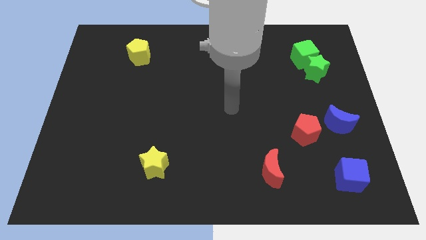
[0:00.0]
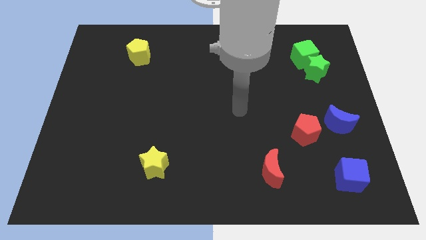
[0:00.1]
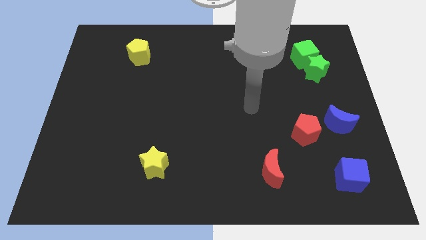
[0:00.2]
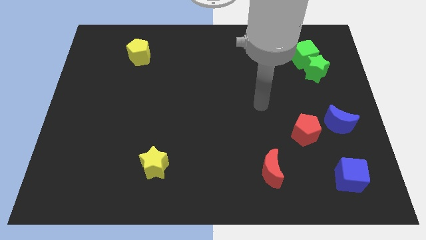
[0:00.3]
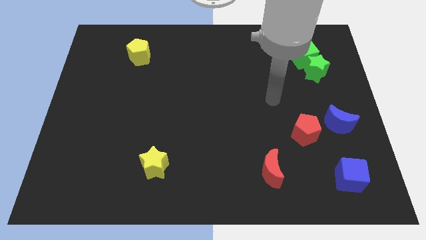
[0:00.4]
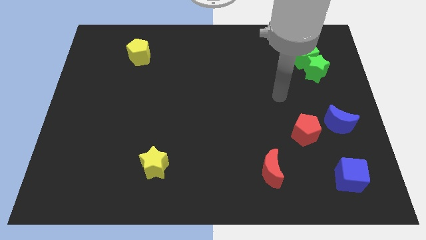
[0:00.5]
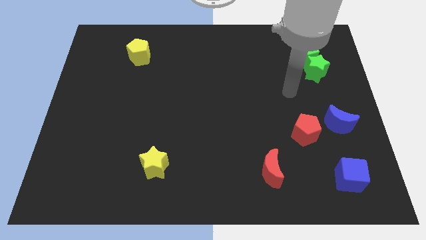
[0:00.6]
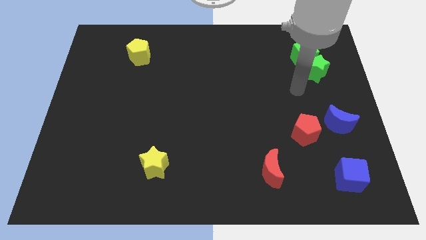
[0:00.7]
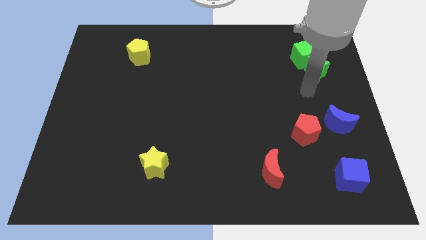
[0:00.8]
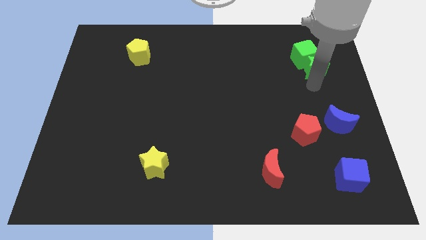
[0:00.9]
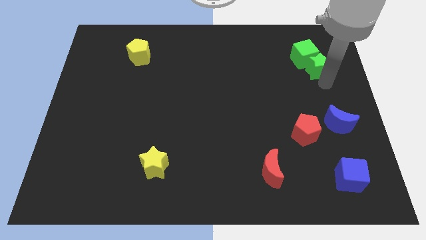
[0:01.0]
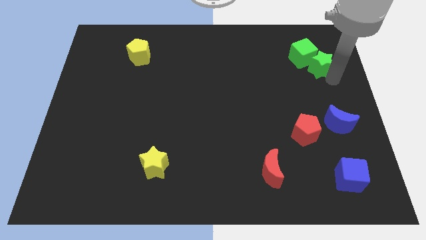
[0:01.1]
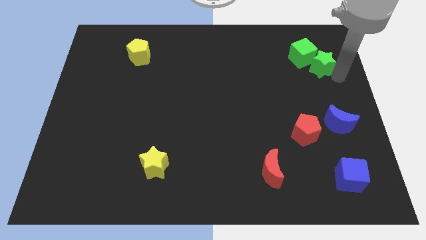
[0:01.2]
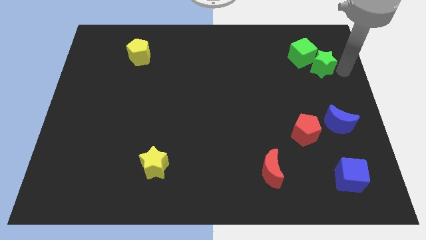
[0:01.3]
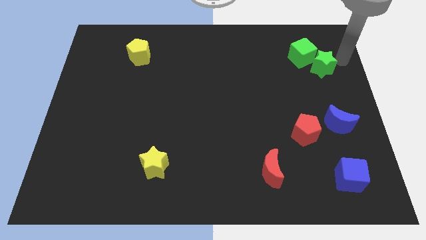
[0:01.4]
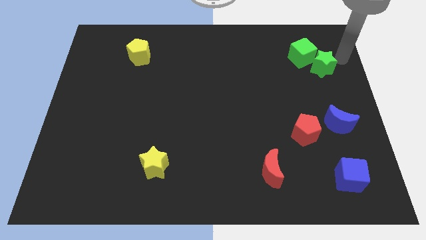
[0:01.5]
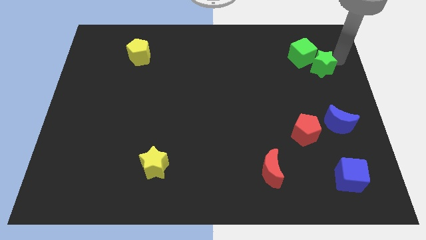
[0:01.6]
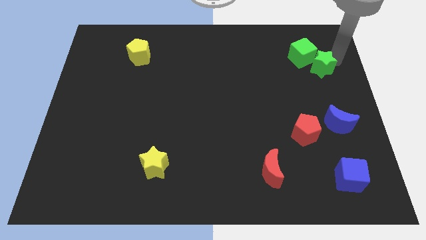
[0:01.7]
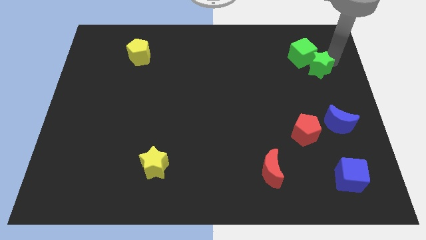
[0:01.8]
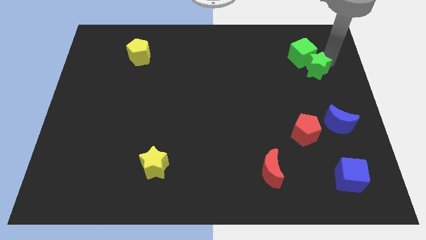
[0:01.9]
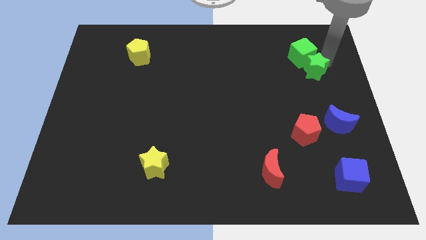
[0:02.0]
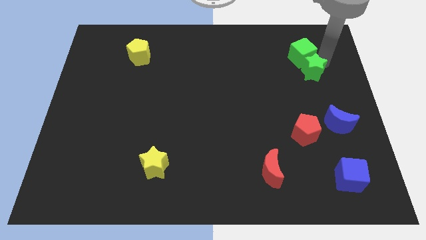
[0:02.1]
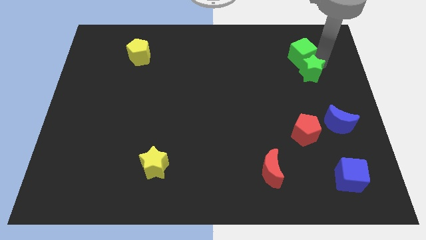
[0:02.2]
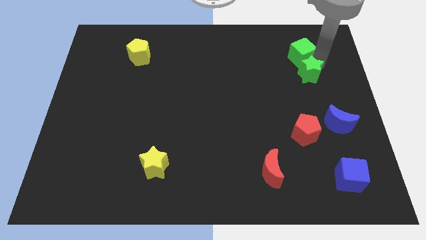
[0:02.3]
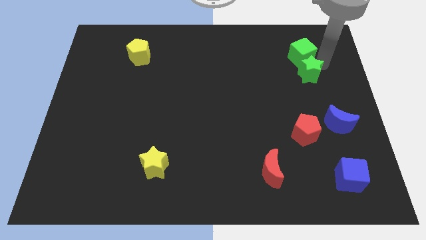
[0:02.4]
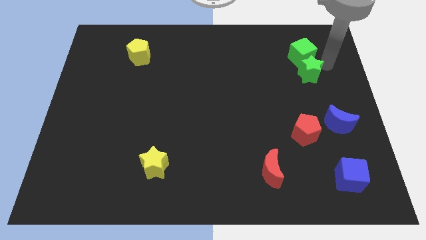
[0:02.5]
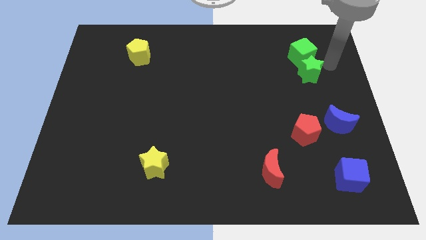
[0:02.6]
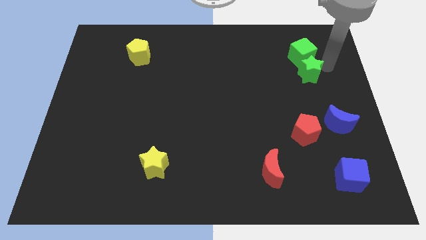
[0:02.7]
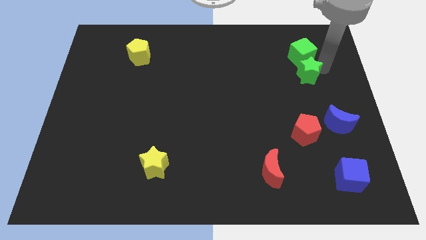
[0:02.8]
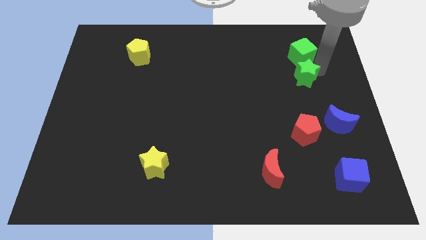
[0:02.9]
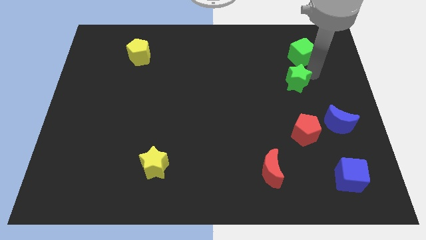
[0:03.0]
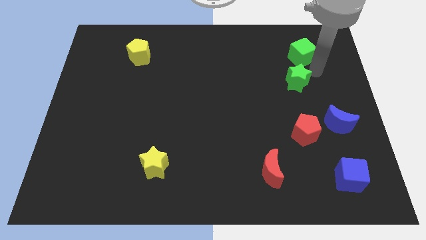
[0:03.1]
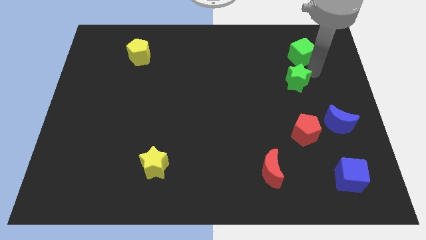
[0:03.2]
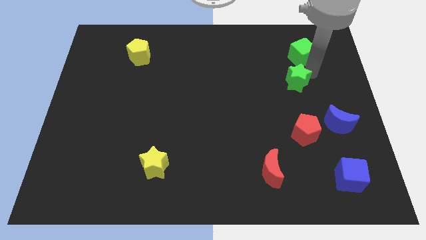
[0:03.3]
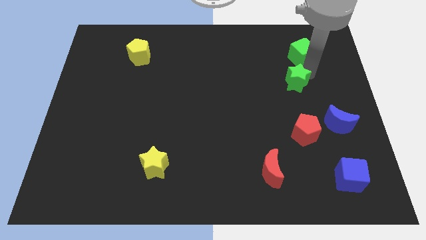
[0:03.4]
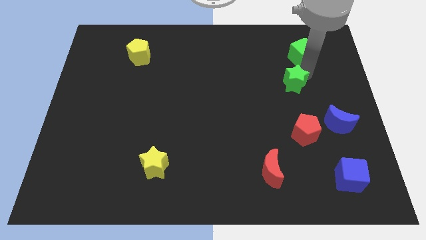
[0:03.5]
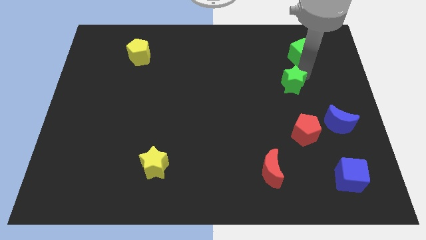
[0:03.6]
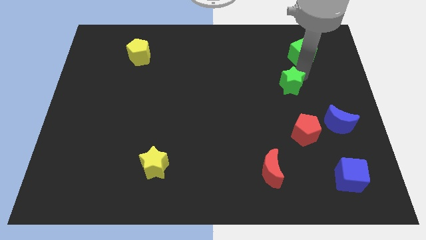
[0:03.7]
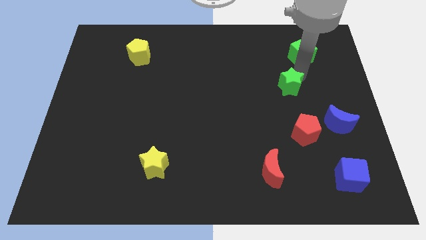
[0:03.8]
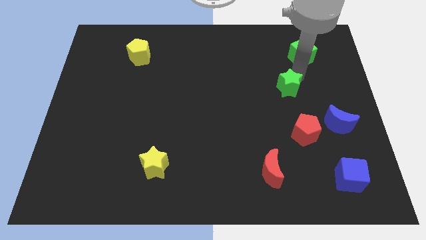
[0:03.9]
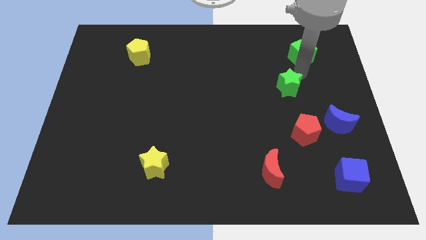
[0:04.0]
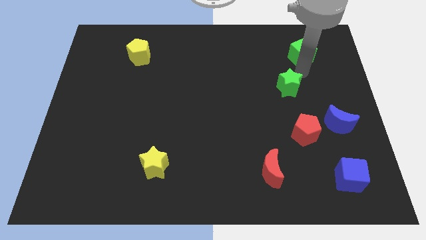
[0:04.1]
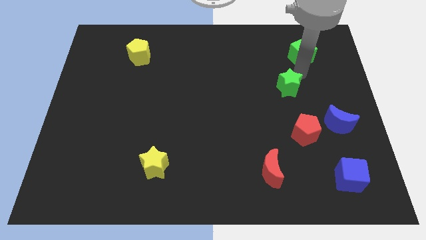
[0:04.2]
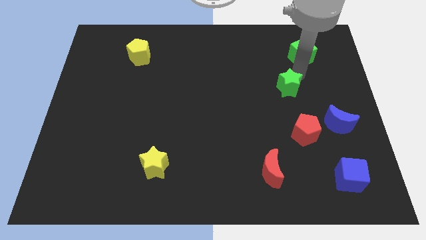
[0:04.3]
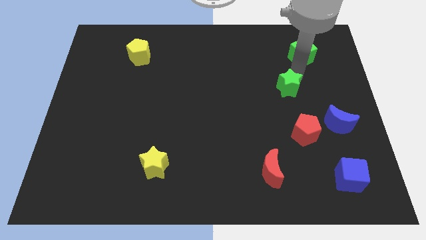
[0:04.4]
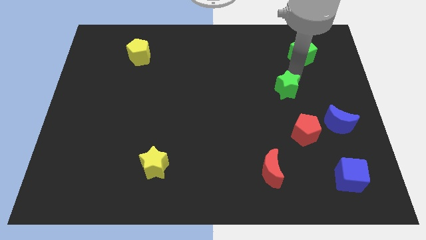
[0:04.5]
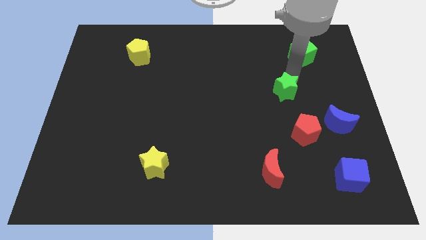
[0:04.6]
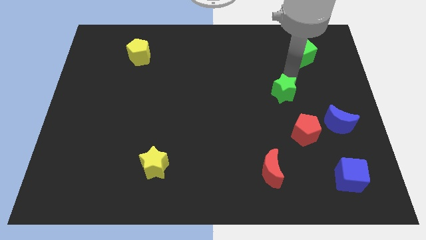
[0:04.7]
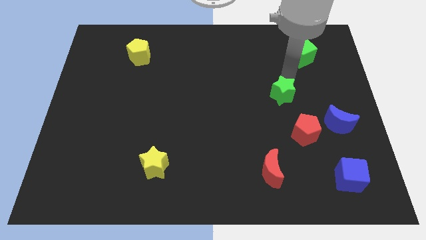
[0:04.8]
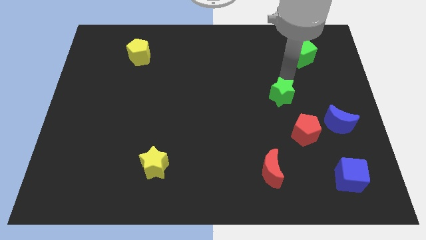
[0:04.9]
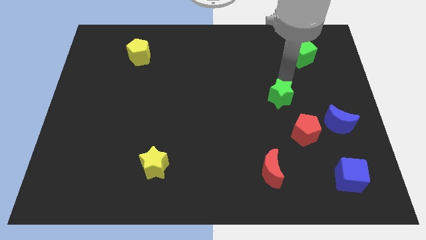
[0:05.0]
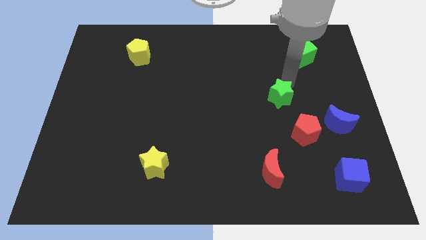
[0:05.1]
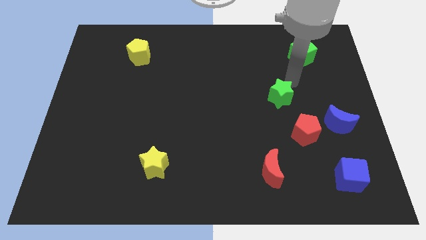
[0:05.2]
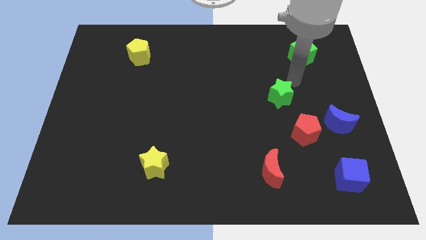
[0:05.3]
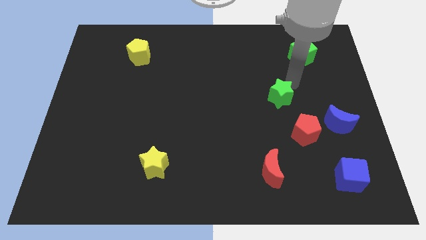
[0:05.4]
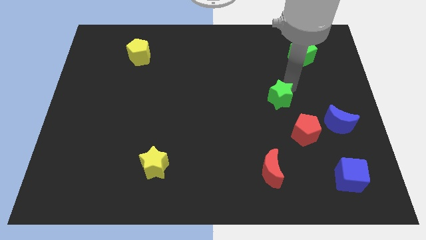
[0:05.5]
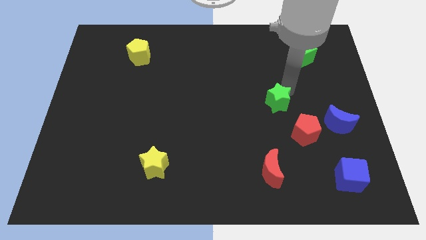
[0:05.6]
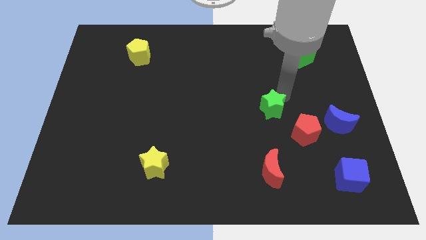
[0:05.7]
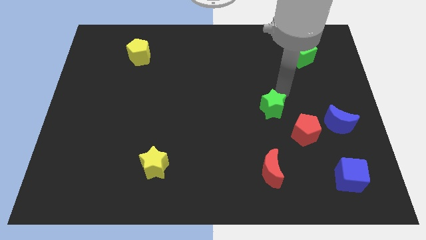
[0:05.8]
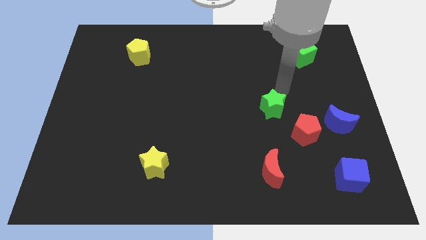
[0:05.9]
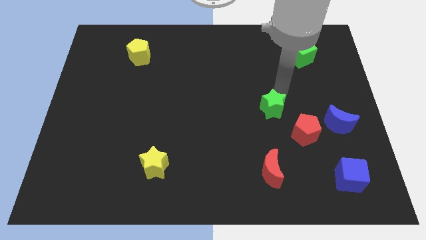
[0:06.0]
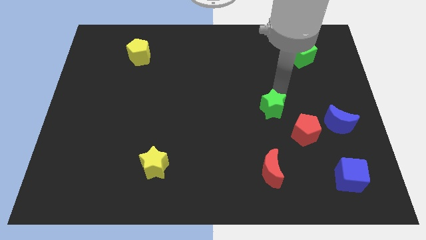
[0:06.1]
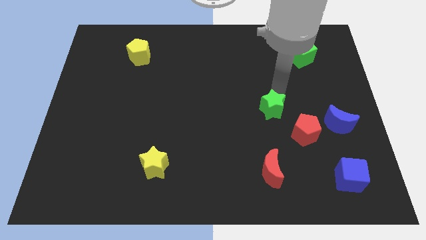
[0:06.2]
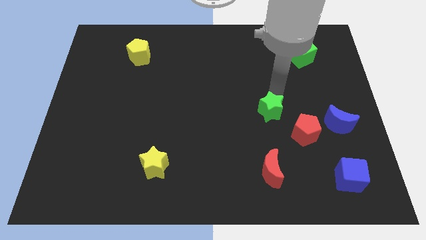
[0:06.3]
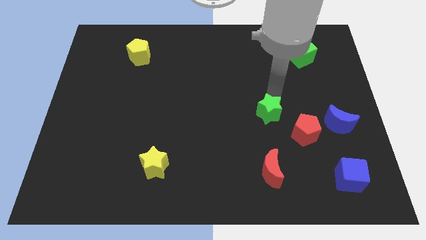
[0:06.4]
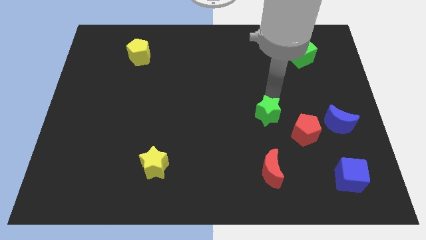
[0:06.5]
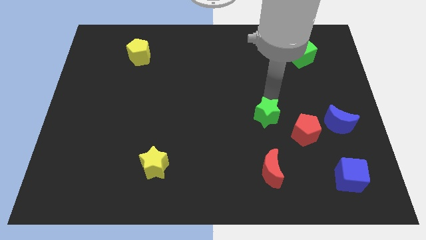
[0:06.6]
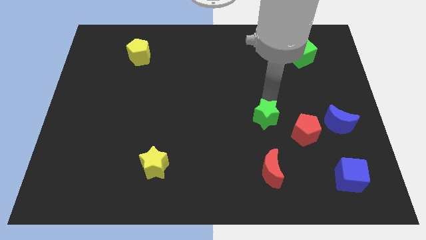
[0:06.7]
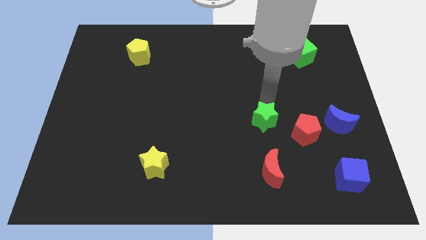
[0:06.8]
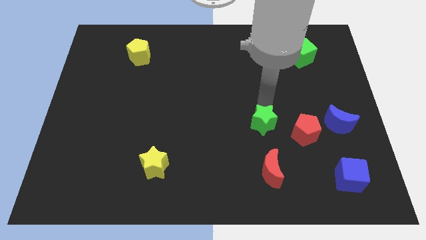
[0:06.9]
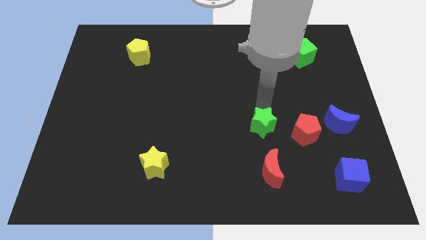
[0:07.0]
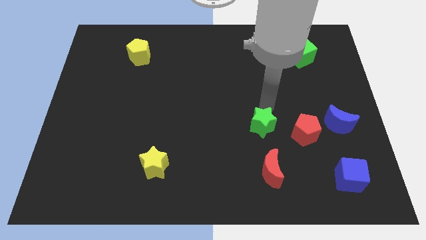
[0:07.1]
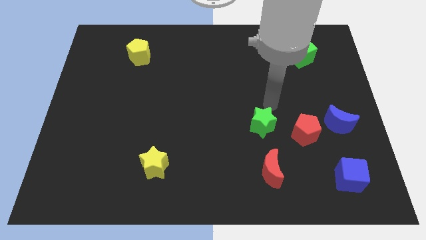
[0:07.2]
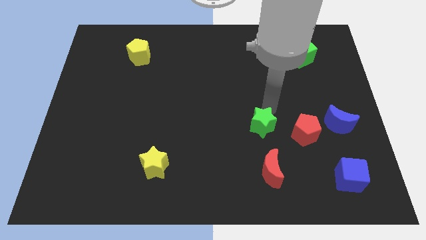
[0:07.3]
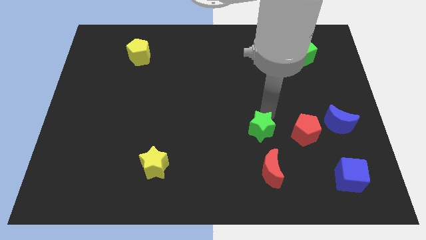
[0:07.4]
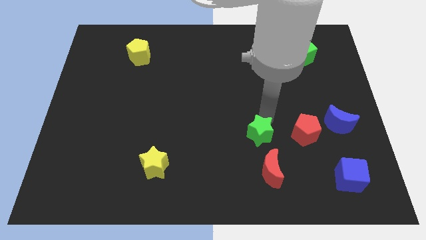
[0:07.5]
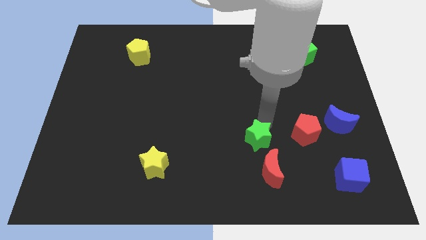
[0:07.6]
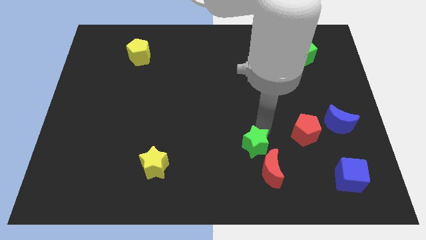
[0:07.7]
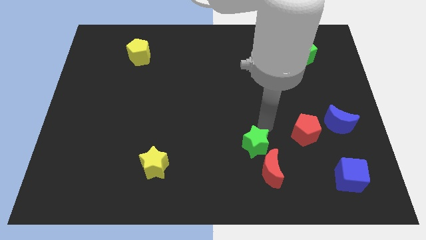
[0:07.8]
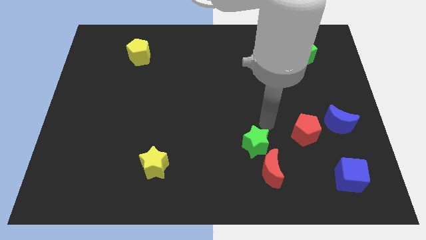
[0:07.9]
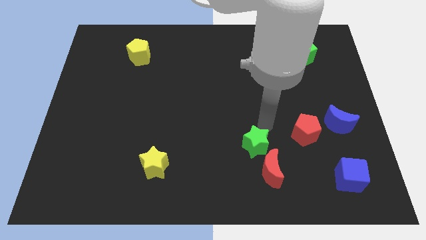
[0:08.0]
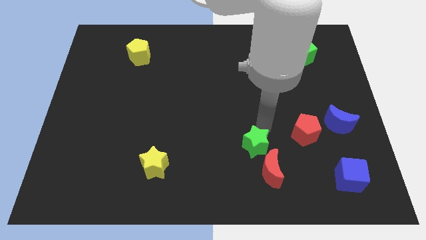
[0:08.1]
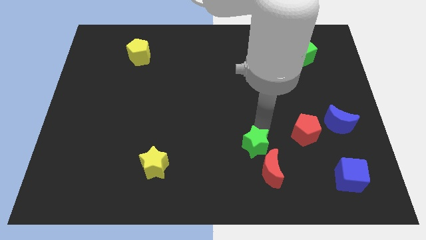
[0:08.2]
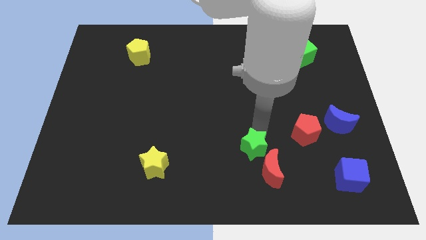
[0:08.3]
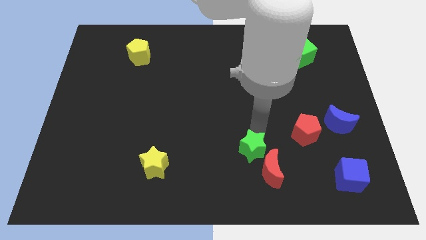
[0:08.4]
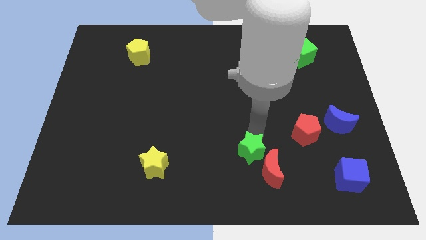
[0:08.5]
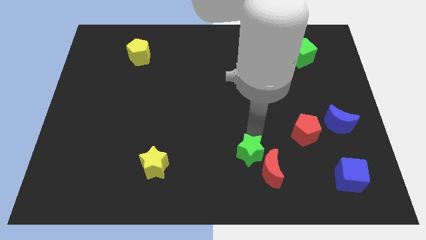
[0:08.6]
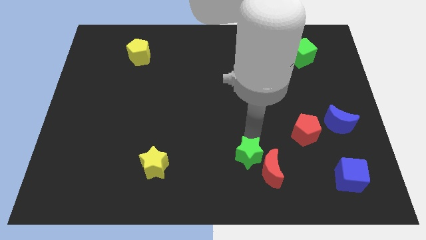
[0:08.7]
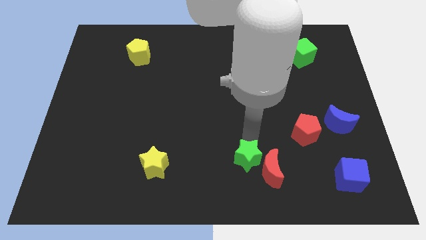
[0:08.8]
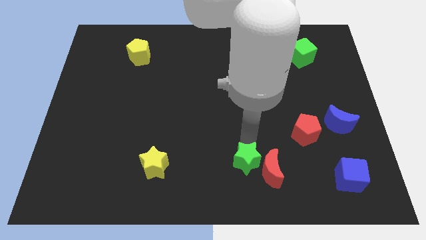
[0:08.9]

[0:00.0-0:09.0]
move the green star to the bottom
